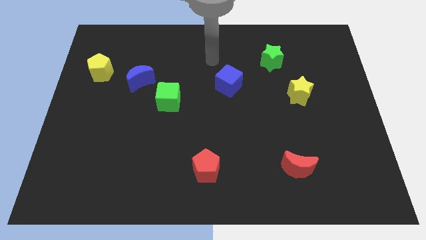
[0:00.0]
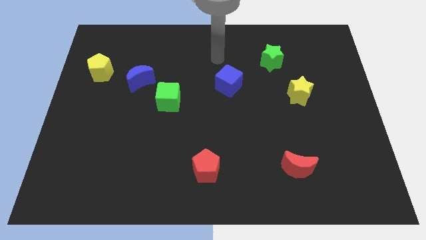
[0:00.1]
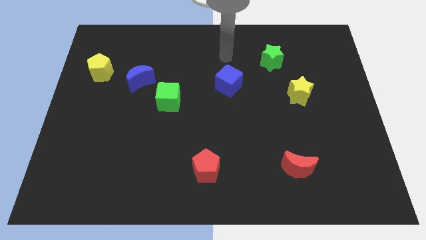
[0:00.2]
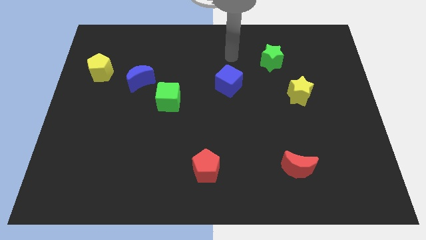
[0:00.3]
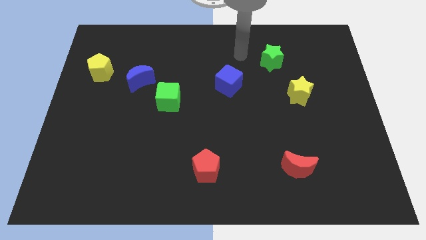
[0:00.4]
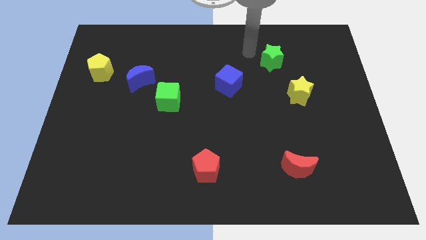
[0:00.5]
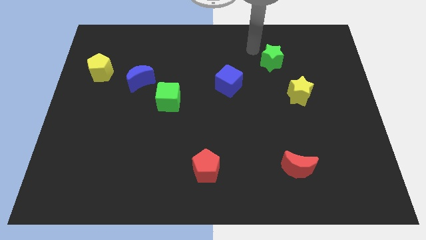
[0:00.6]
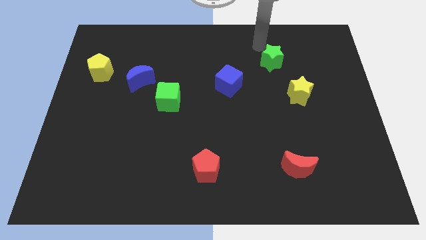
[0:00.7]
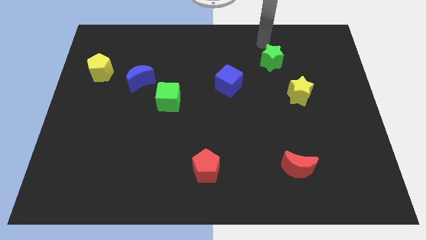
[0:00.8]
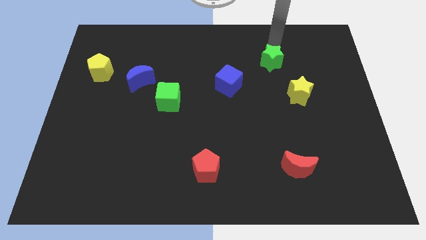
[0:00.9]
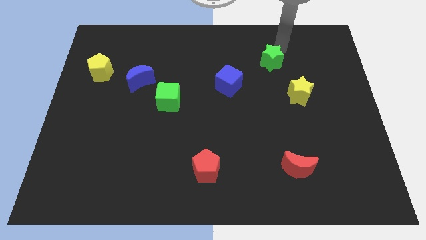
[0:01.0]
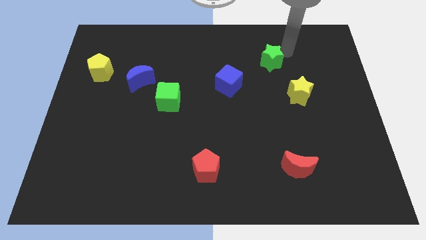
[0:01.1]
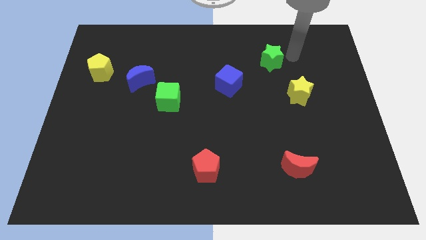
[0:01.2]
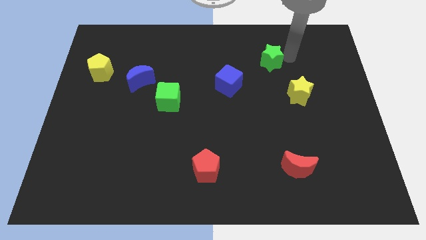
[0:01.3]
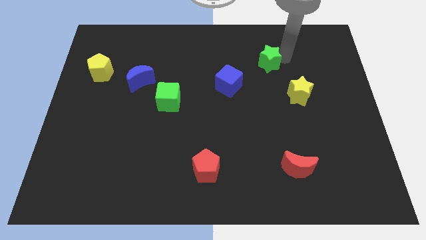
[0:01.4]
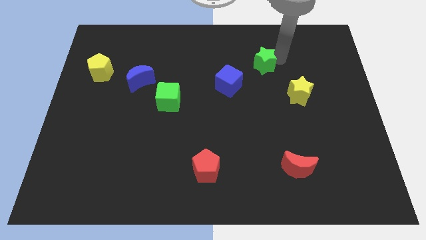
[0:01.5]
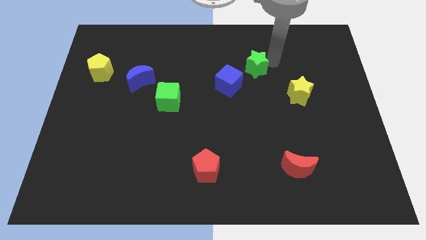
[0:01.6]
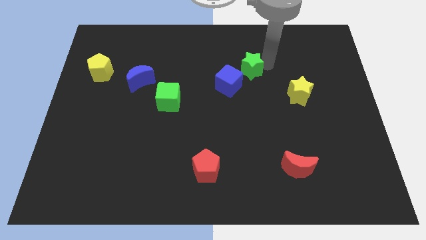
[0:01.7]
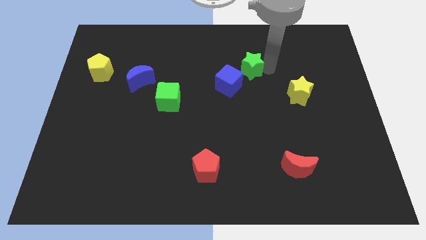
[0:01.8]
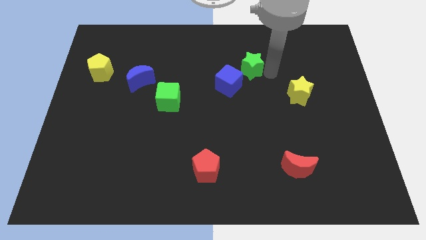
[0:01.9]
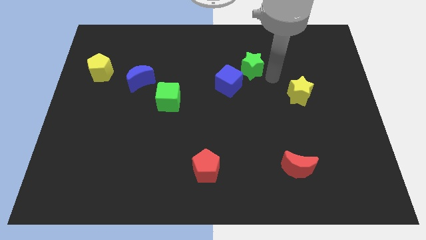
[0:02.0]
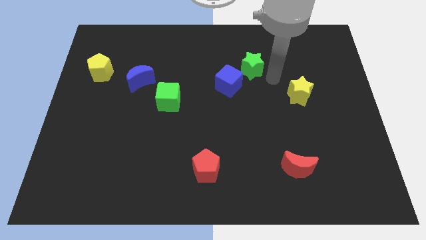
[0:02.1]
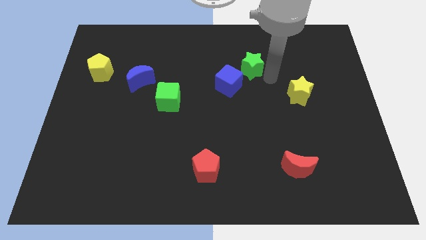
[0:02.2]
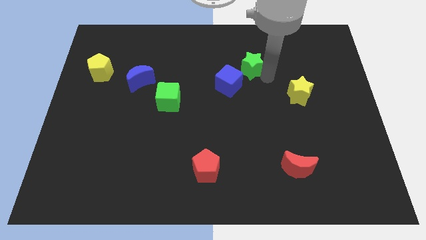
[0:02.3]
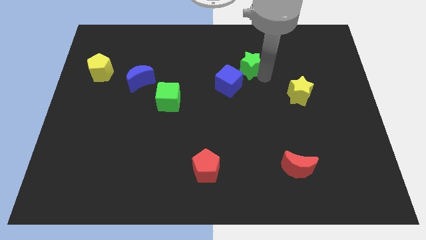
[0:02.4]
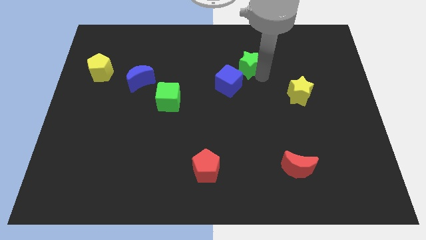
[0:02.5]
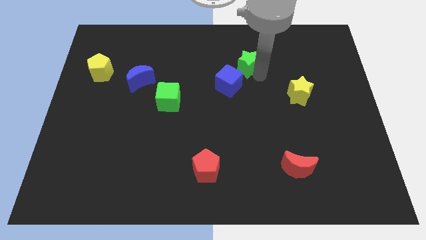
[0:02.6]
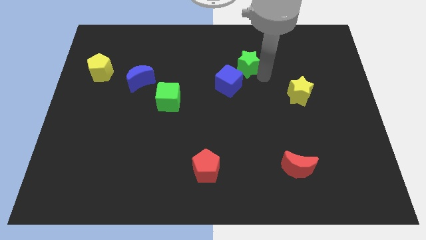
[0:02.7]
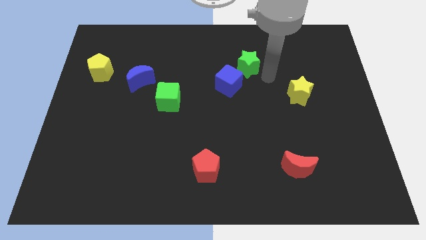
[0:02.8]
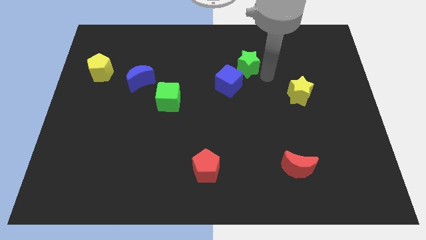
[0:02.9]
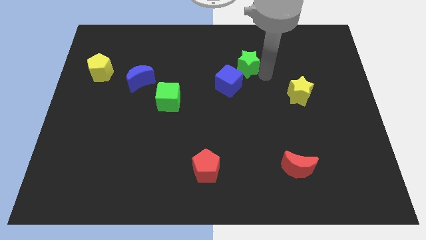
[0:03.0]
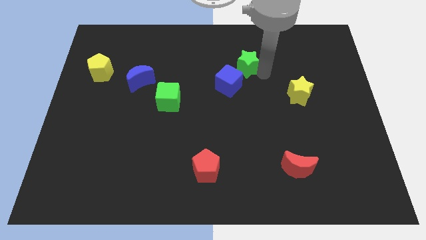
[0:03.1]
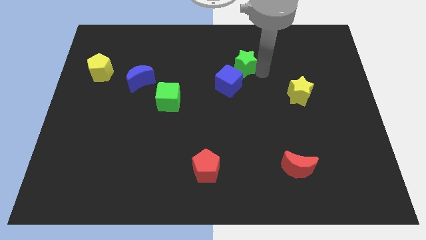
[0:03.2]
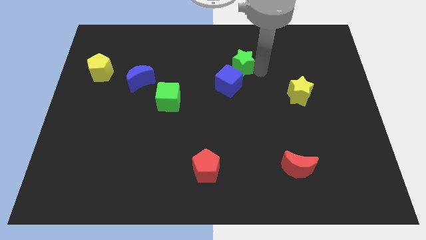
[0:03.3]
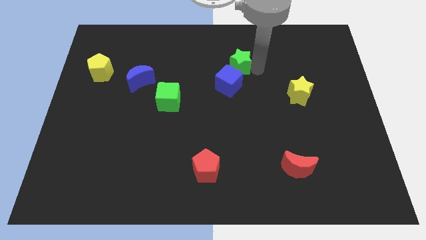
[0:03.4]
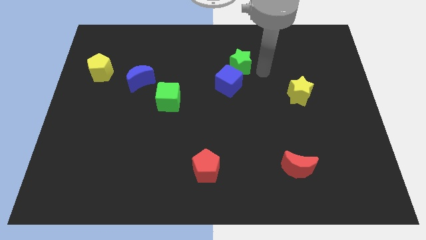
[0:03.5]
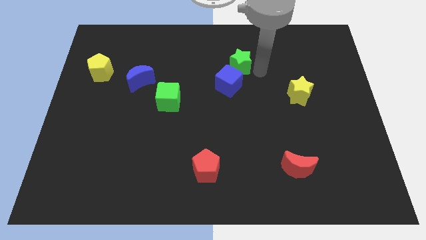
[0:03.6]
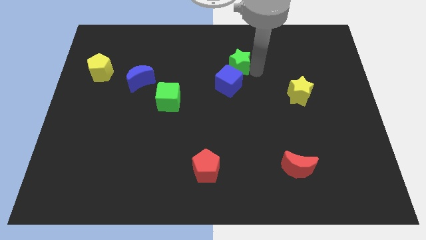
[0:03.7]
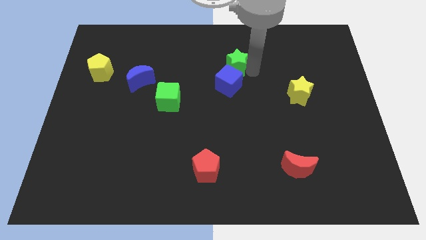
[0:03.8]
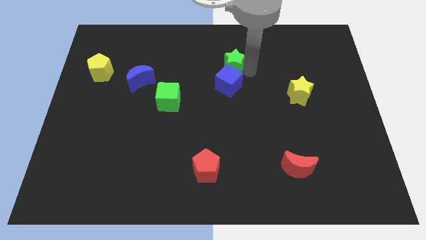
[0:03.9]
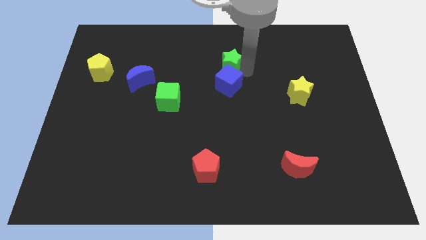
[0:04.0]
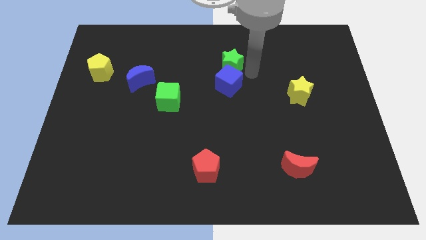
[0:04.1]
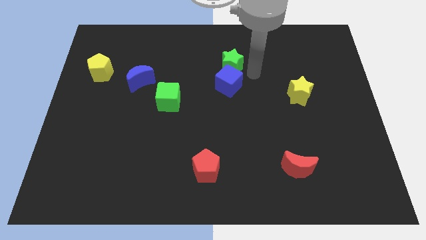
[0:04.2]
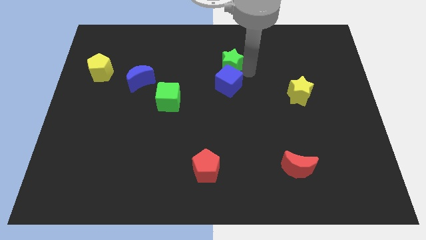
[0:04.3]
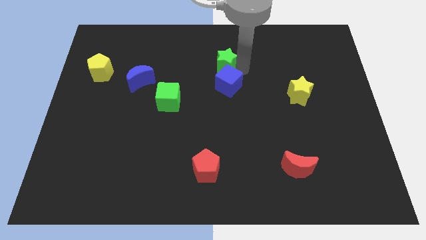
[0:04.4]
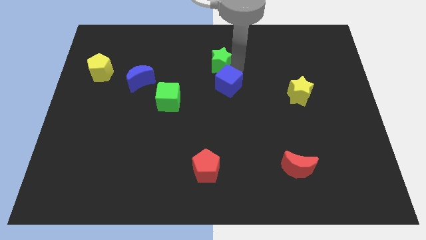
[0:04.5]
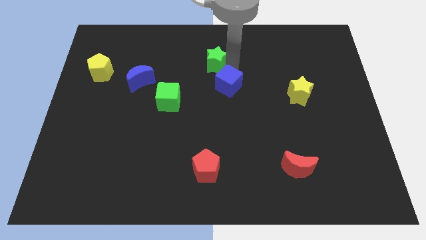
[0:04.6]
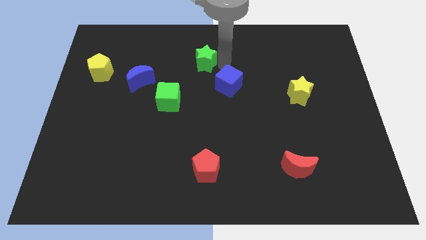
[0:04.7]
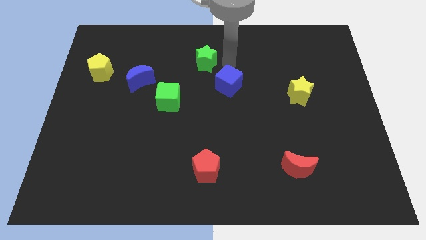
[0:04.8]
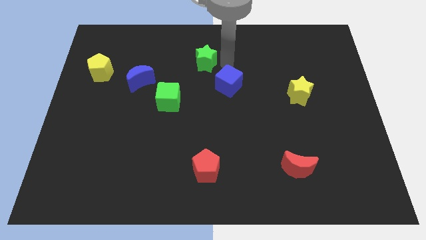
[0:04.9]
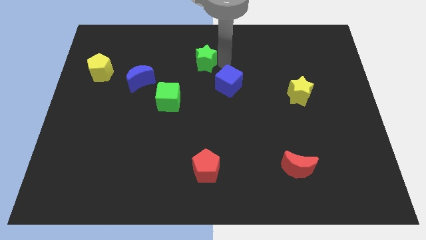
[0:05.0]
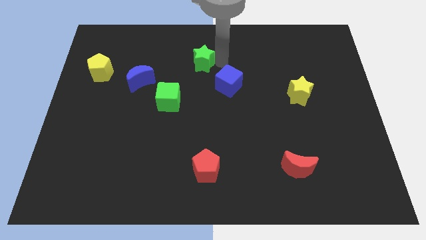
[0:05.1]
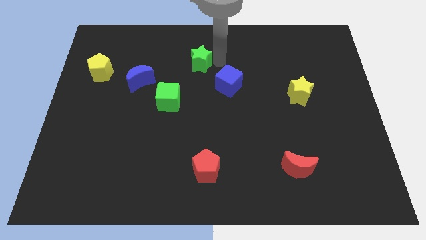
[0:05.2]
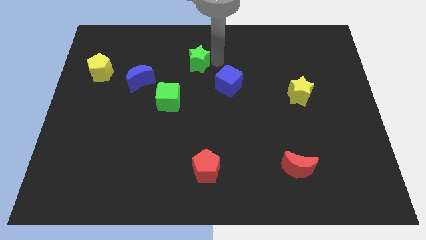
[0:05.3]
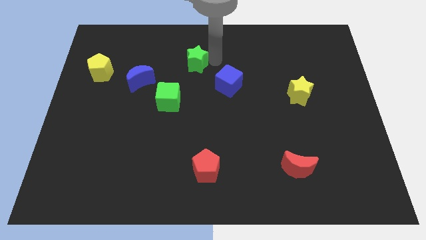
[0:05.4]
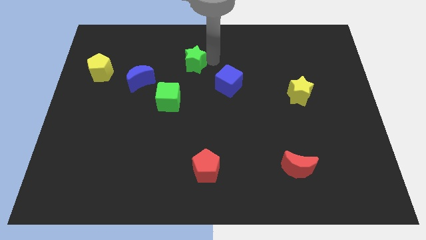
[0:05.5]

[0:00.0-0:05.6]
slide the green star left

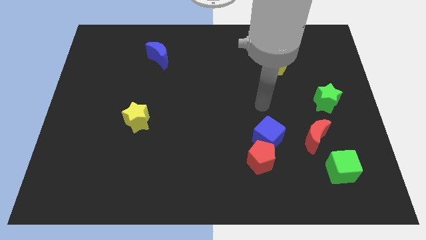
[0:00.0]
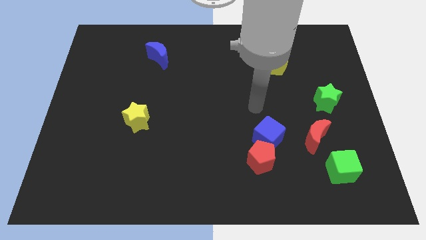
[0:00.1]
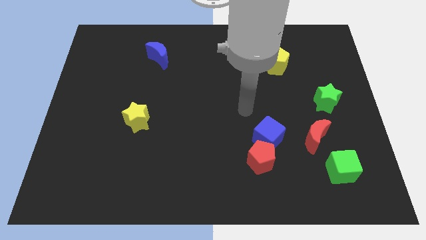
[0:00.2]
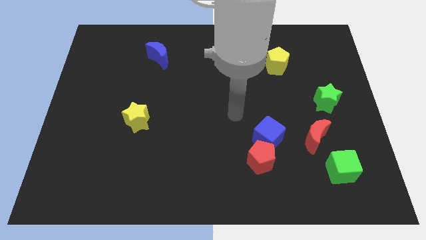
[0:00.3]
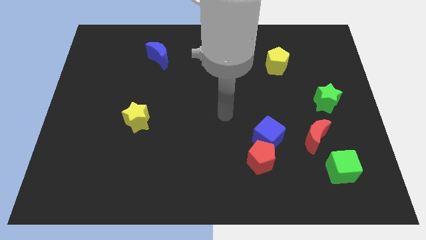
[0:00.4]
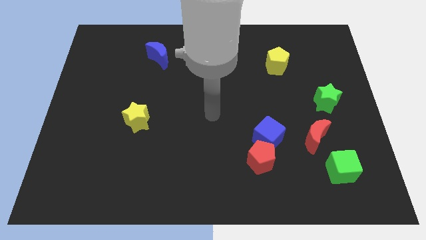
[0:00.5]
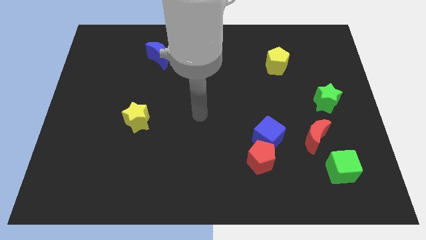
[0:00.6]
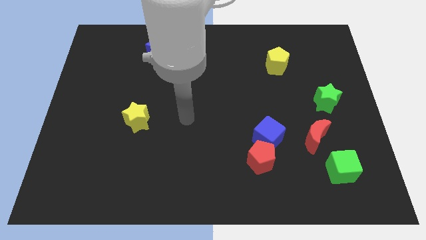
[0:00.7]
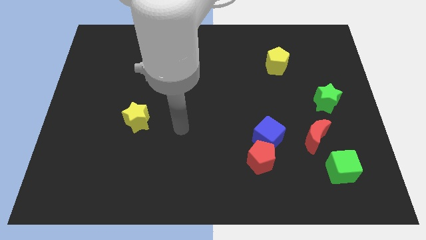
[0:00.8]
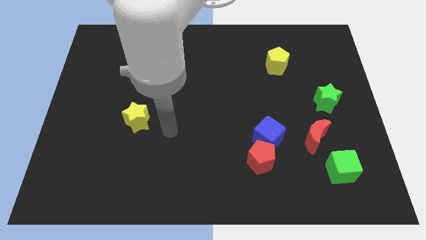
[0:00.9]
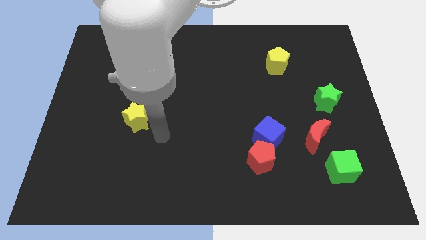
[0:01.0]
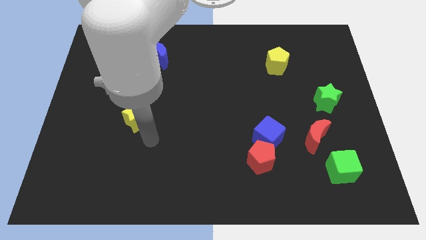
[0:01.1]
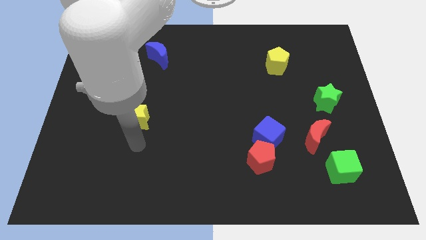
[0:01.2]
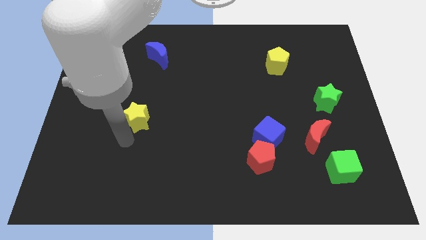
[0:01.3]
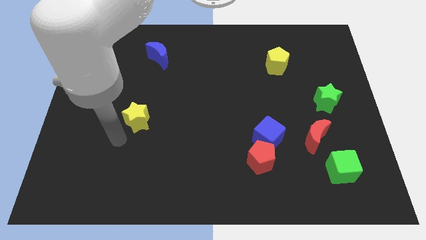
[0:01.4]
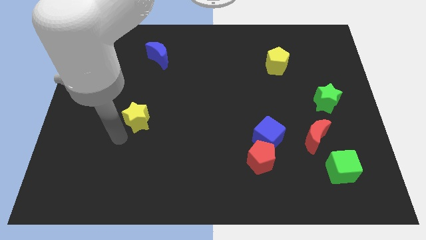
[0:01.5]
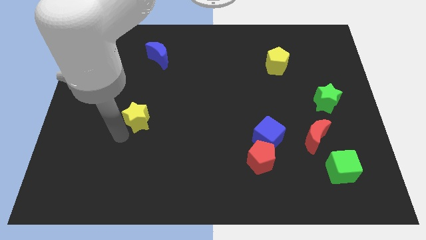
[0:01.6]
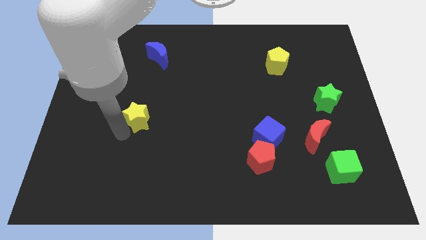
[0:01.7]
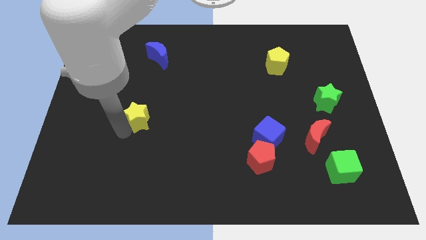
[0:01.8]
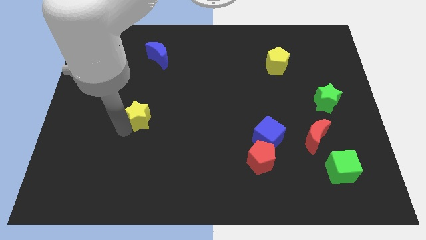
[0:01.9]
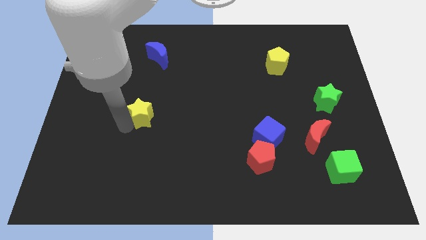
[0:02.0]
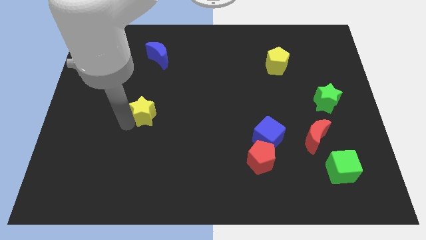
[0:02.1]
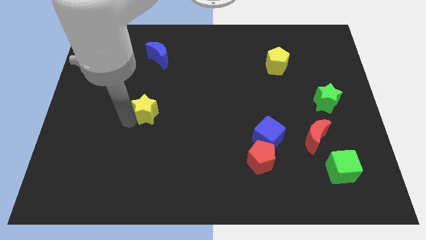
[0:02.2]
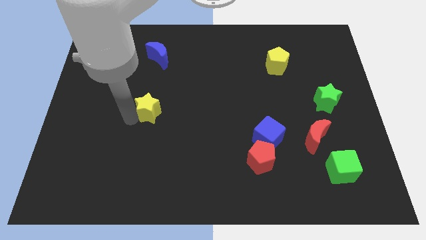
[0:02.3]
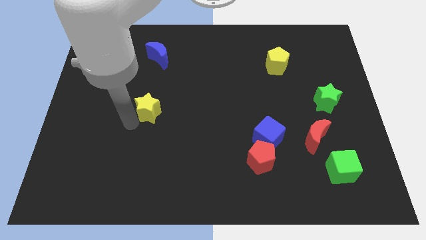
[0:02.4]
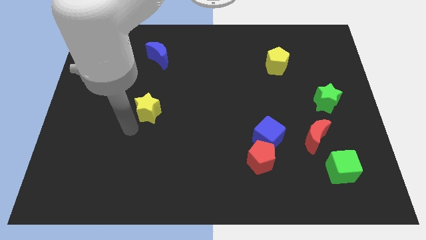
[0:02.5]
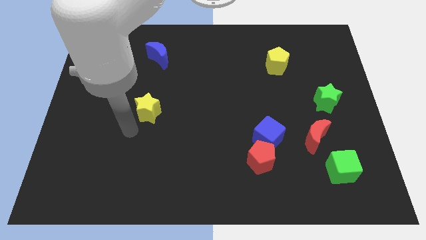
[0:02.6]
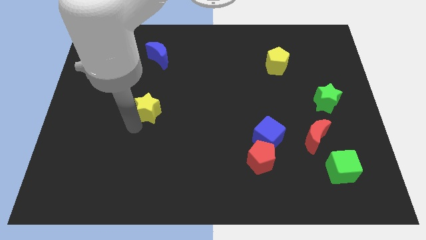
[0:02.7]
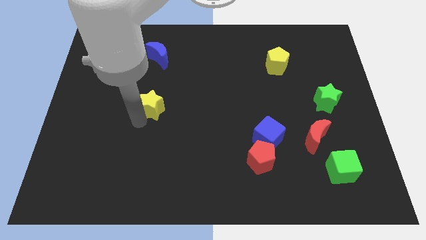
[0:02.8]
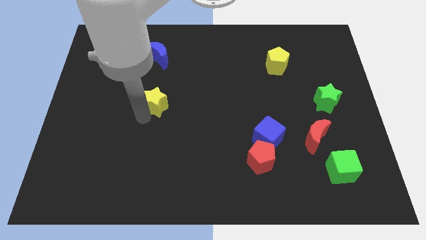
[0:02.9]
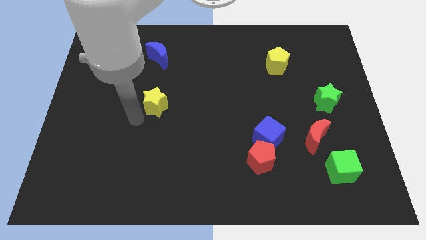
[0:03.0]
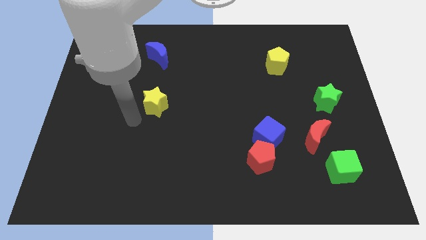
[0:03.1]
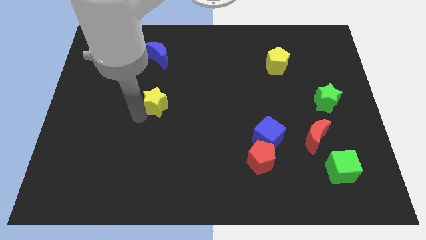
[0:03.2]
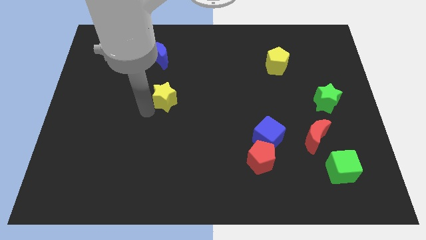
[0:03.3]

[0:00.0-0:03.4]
push the yellow star upwards and then right a bit
